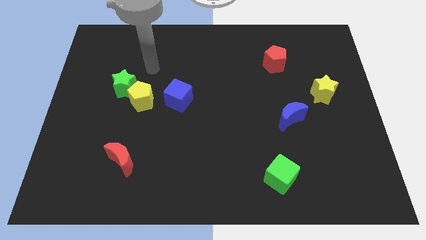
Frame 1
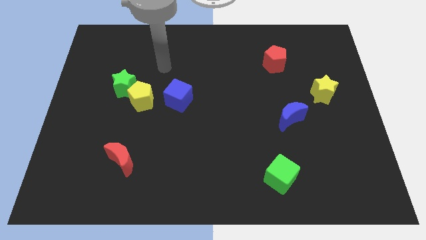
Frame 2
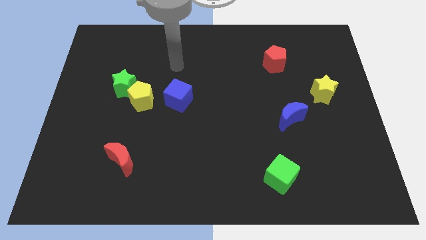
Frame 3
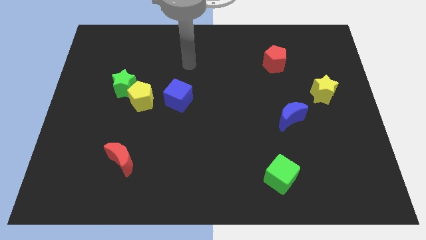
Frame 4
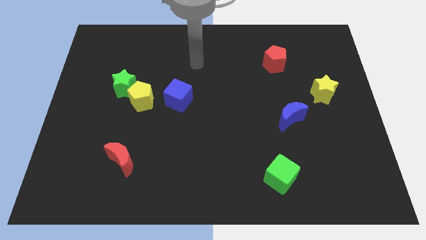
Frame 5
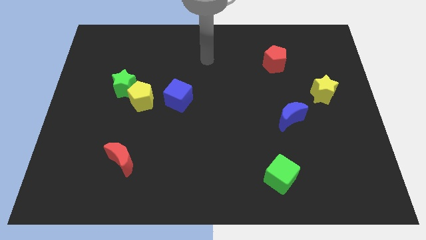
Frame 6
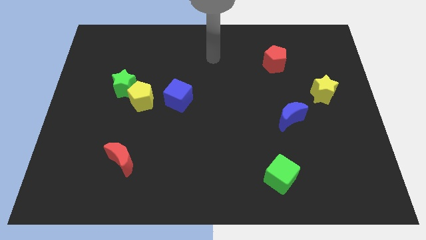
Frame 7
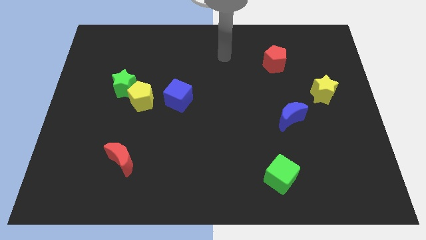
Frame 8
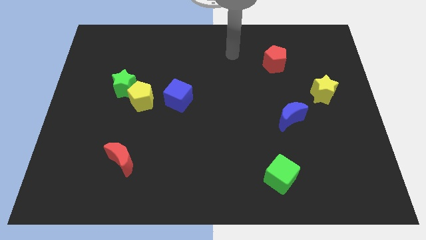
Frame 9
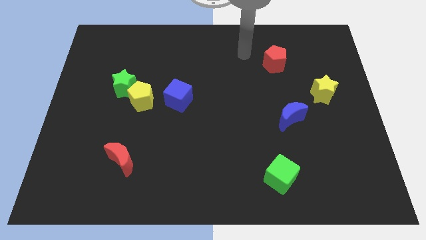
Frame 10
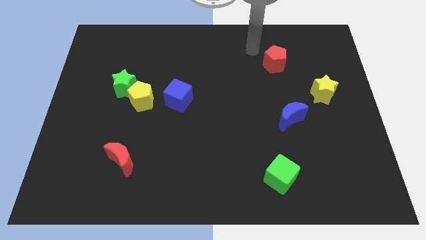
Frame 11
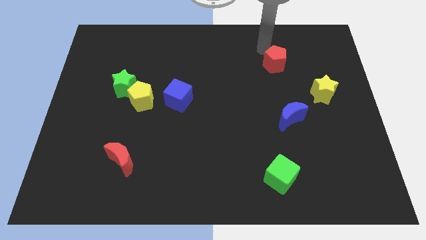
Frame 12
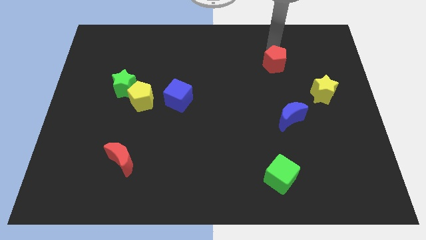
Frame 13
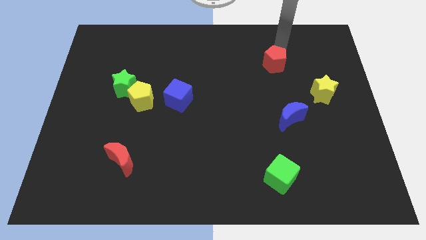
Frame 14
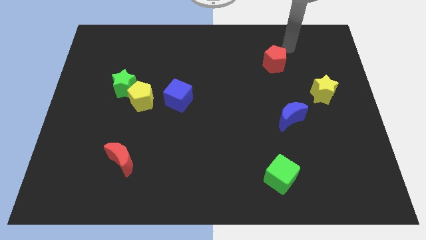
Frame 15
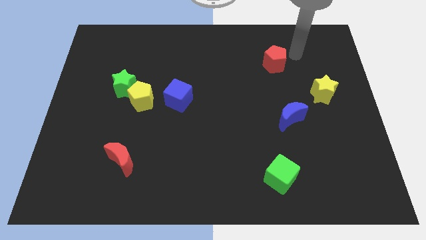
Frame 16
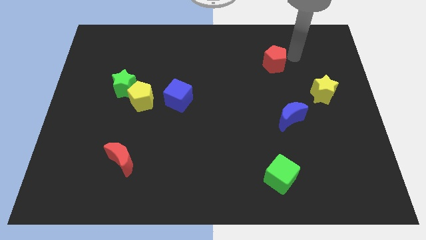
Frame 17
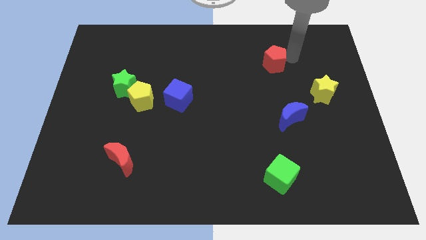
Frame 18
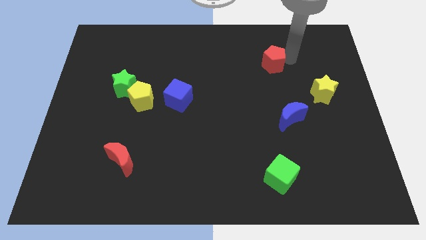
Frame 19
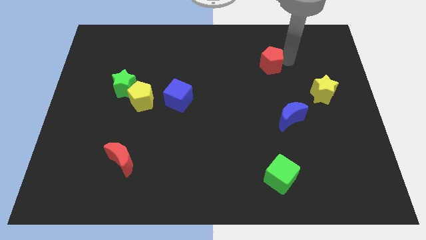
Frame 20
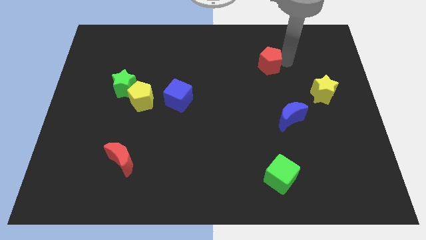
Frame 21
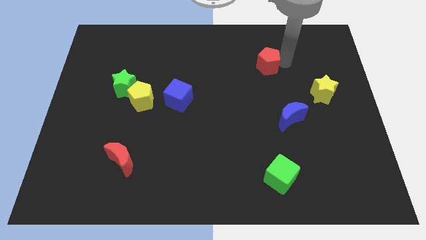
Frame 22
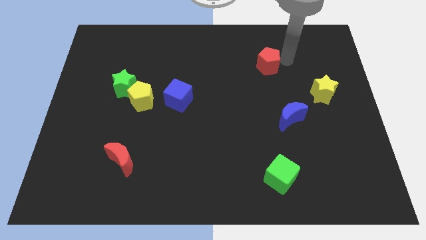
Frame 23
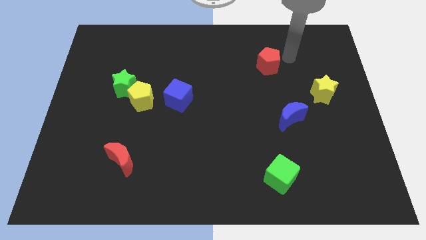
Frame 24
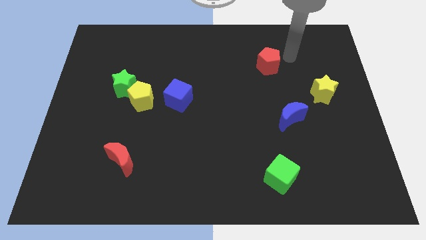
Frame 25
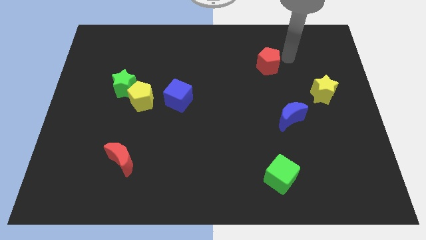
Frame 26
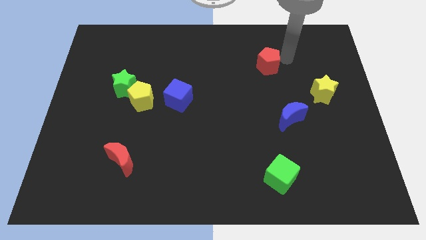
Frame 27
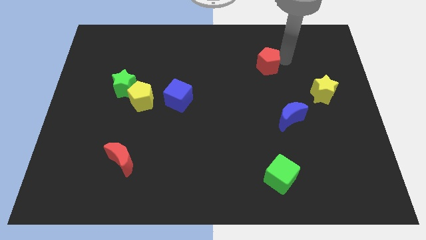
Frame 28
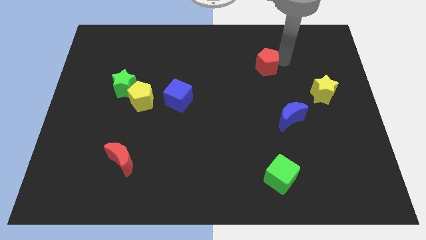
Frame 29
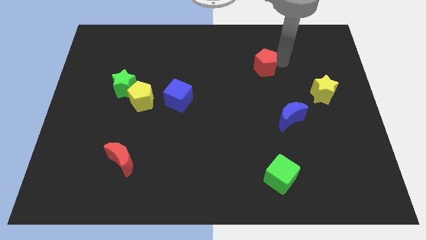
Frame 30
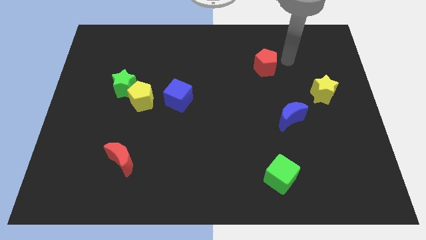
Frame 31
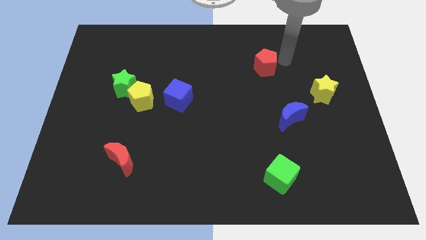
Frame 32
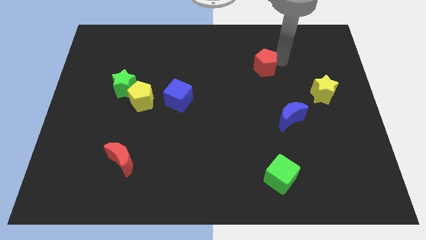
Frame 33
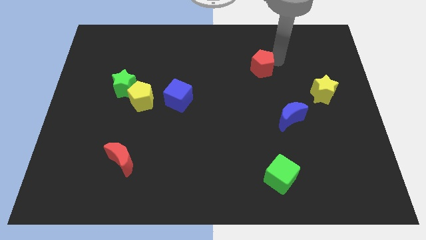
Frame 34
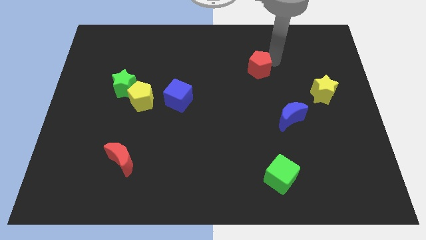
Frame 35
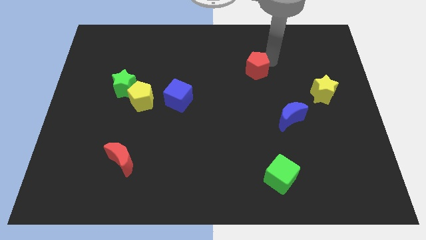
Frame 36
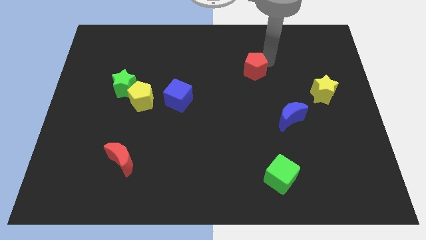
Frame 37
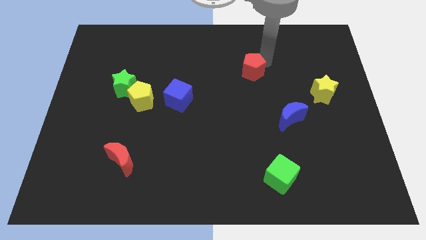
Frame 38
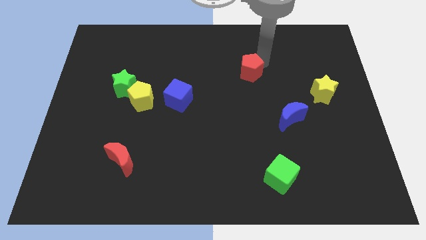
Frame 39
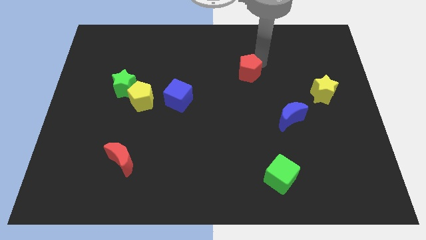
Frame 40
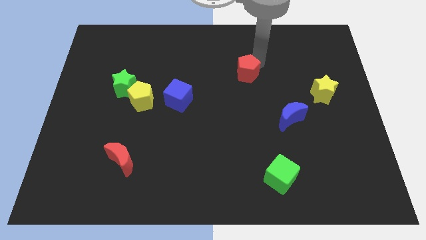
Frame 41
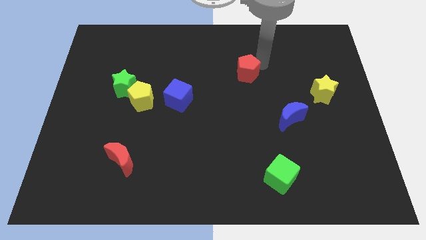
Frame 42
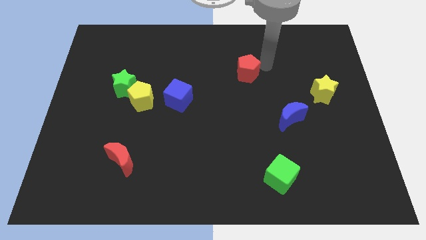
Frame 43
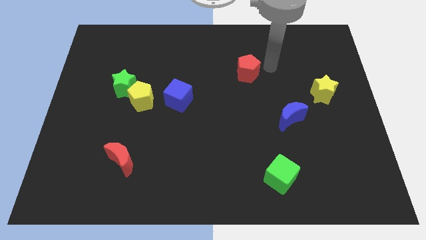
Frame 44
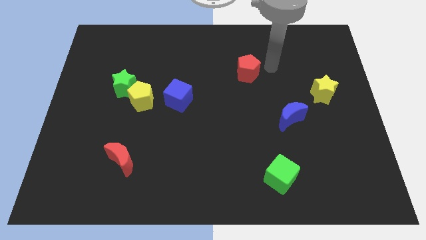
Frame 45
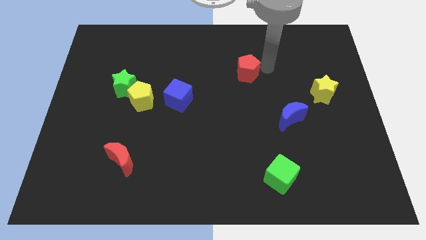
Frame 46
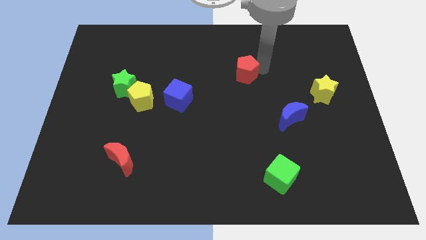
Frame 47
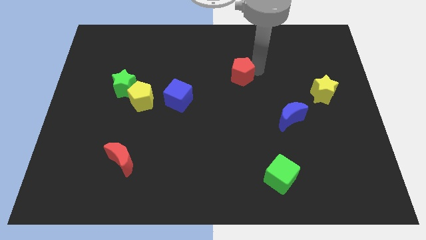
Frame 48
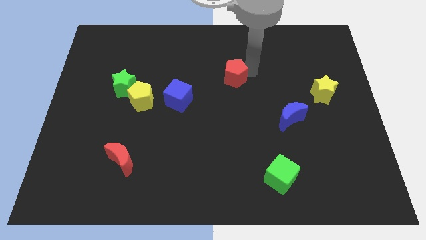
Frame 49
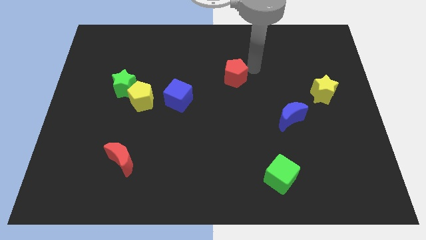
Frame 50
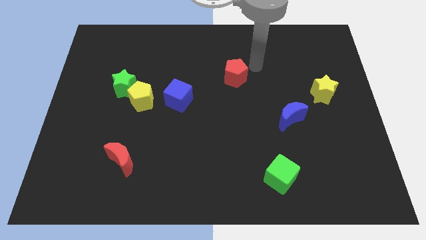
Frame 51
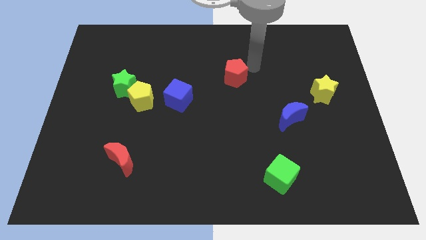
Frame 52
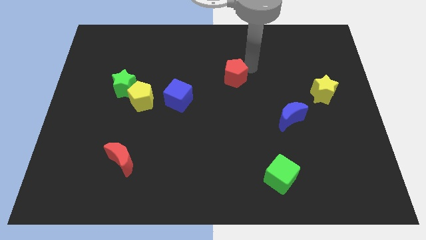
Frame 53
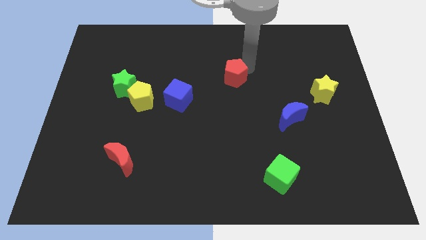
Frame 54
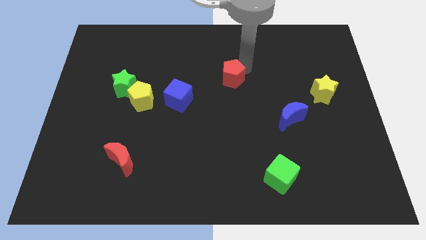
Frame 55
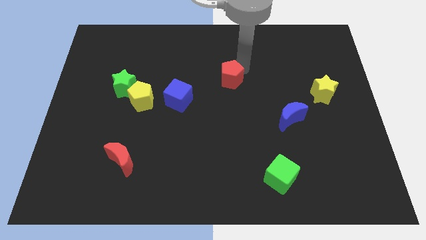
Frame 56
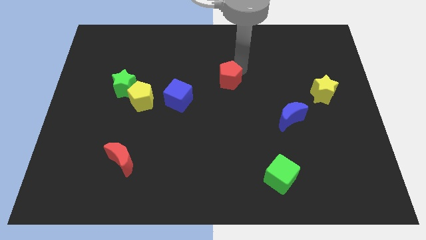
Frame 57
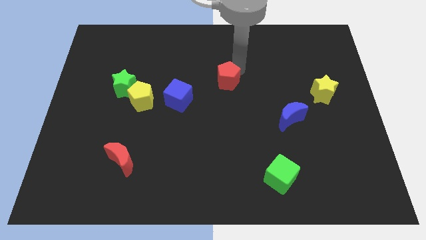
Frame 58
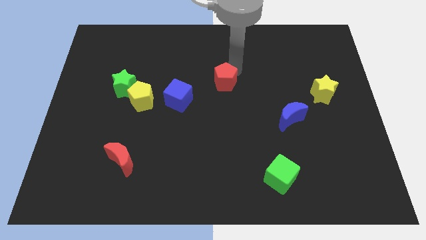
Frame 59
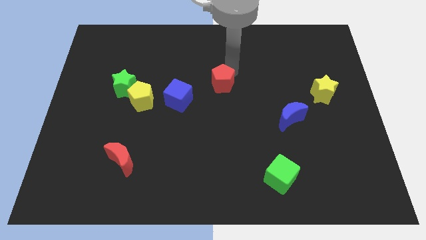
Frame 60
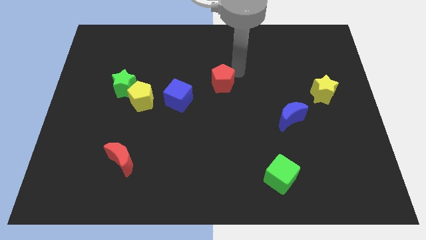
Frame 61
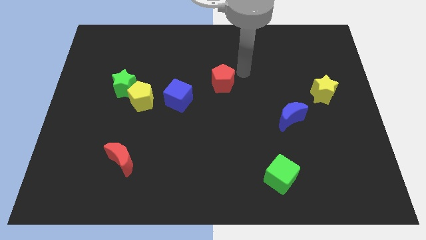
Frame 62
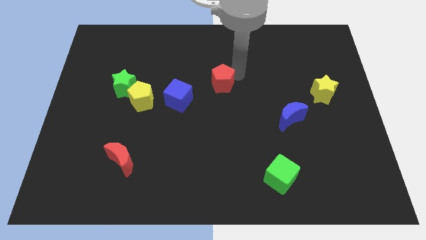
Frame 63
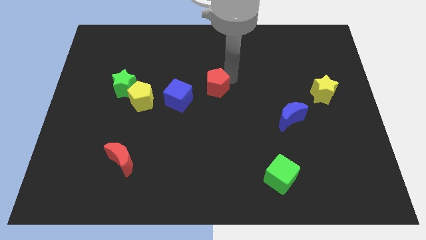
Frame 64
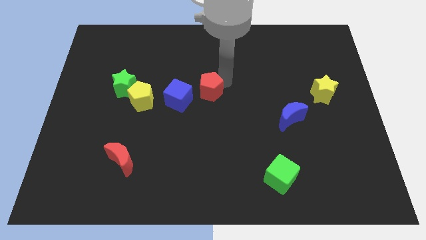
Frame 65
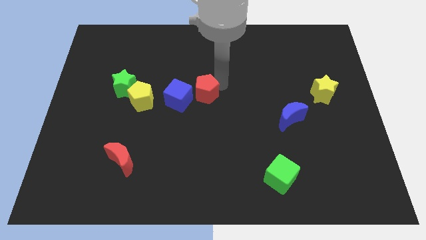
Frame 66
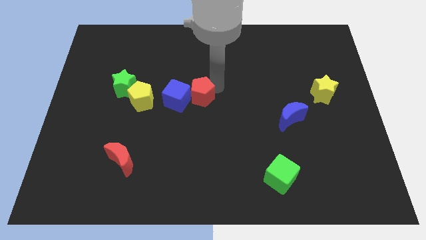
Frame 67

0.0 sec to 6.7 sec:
slide the red pentagon towards the blue cube

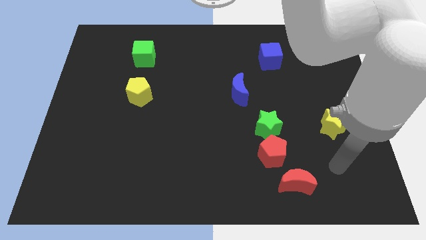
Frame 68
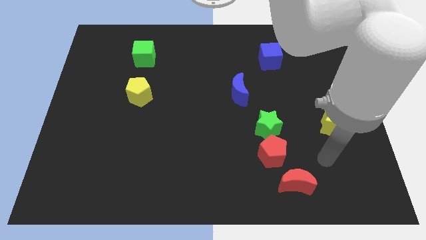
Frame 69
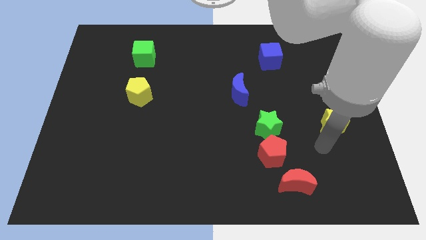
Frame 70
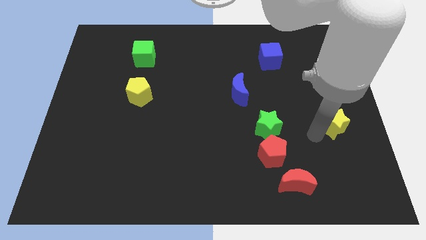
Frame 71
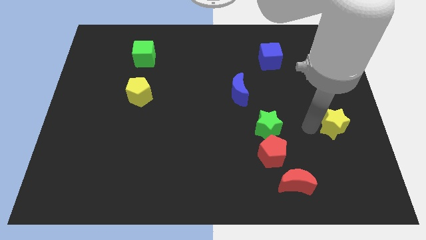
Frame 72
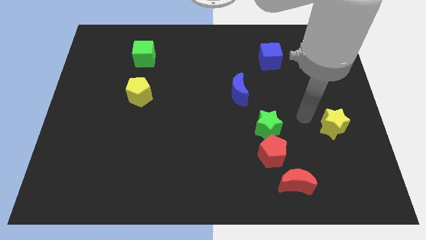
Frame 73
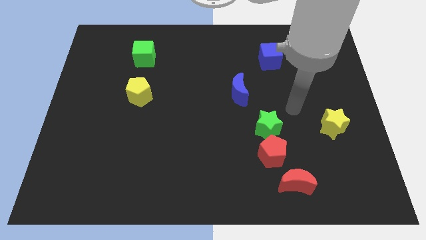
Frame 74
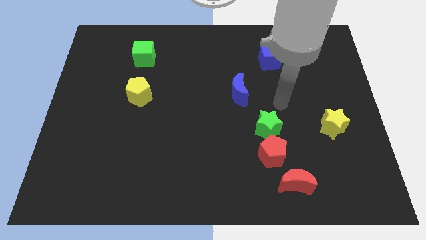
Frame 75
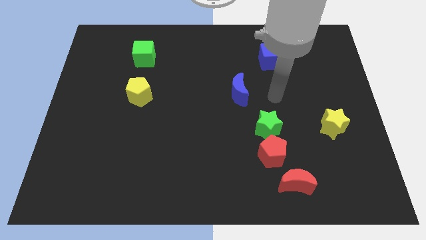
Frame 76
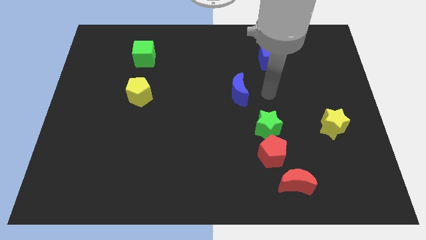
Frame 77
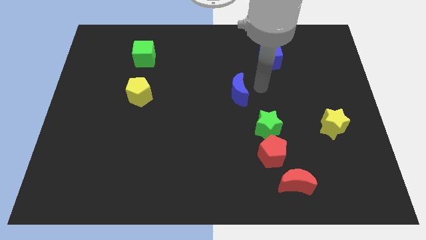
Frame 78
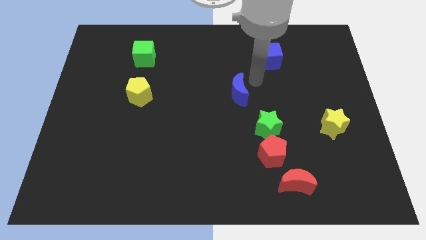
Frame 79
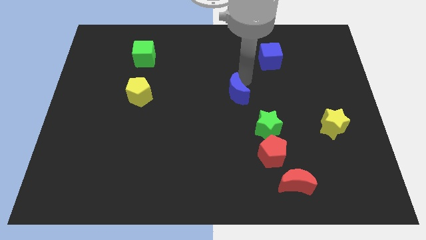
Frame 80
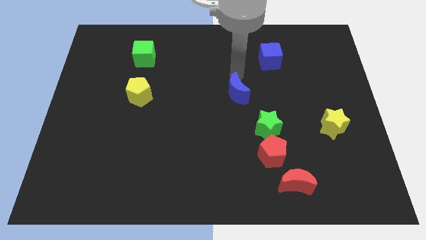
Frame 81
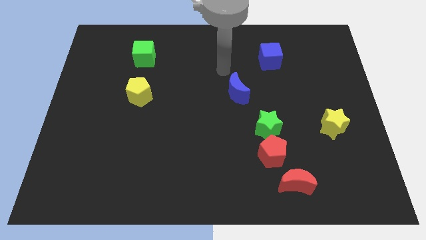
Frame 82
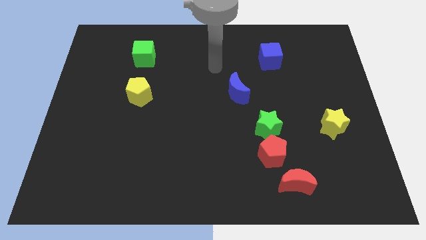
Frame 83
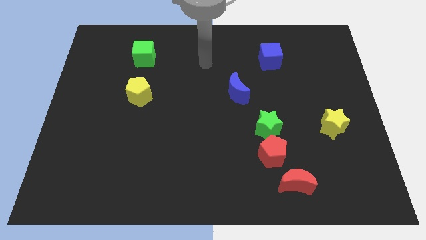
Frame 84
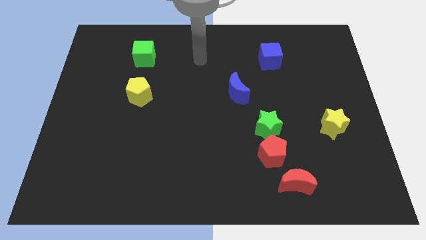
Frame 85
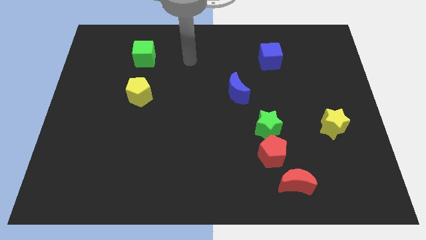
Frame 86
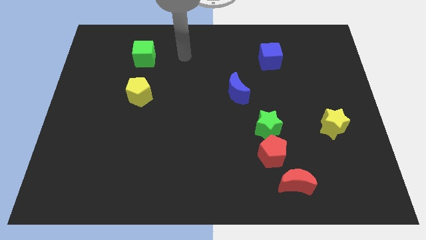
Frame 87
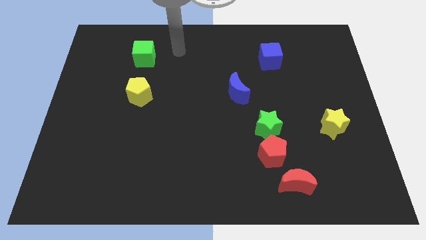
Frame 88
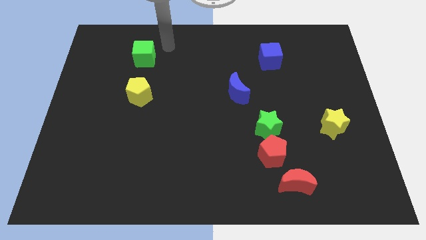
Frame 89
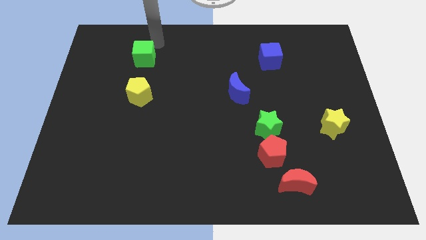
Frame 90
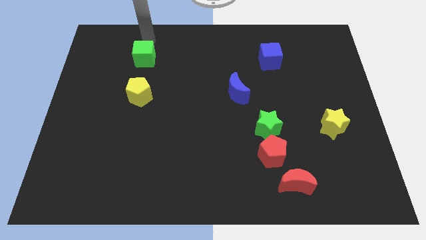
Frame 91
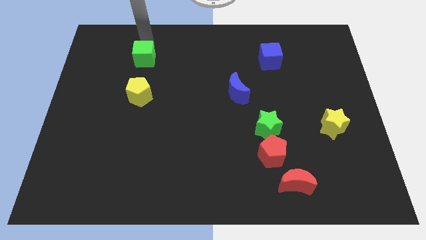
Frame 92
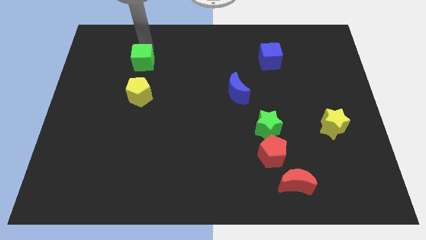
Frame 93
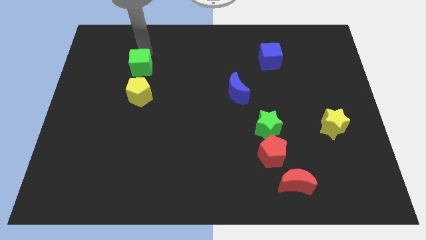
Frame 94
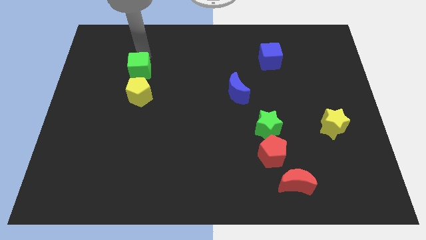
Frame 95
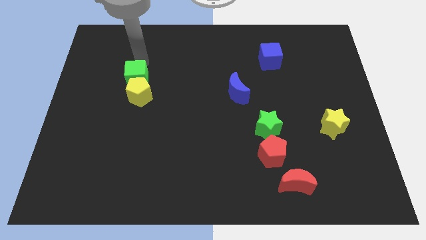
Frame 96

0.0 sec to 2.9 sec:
push the green cube next to the yellow pentagon
